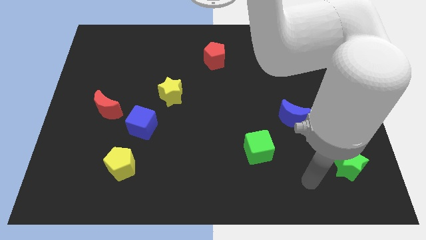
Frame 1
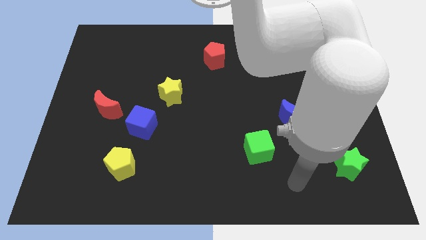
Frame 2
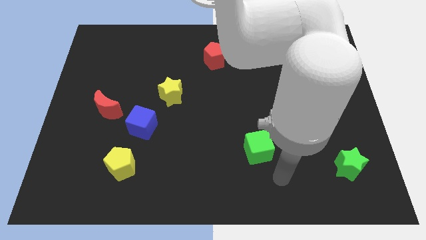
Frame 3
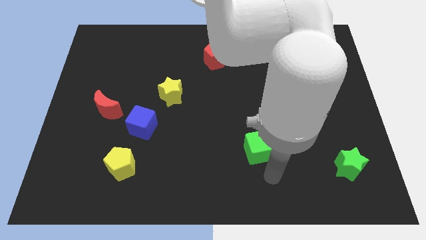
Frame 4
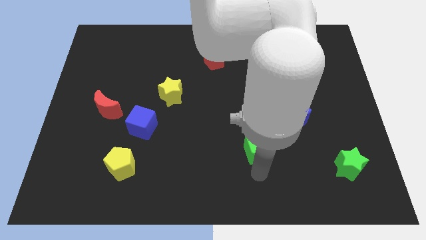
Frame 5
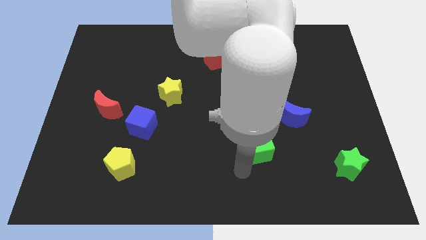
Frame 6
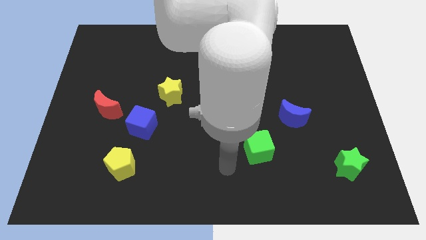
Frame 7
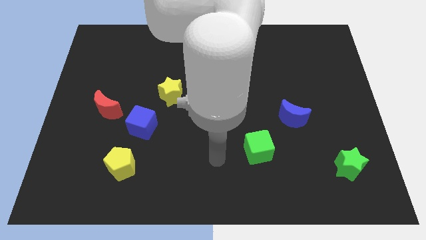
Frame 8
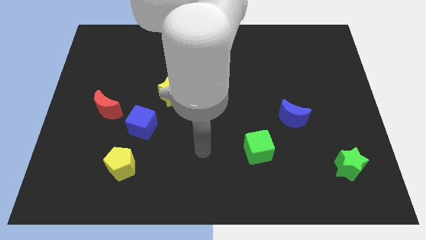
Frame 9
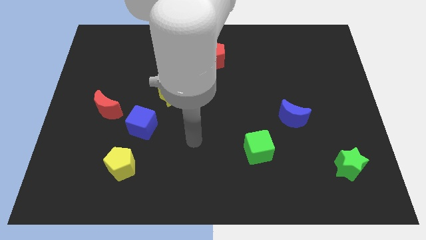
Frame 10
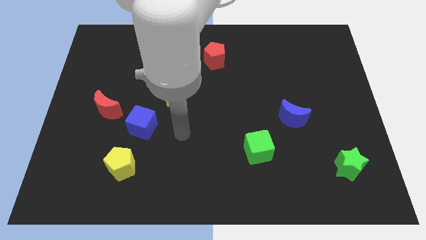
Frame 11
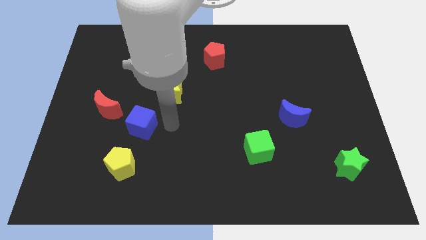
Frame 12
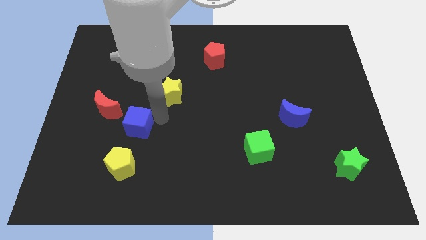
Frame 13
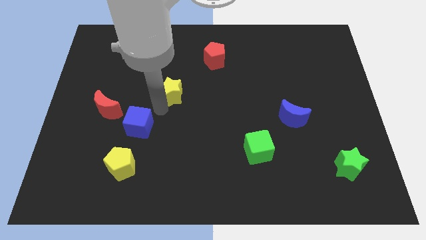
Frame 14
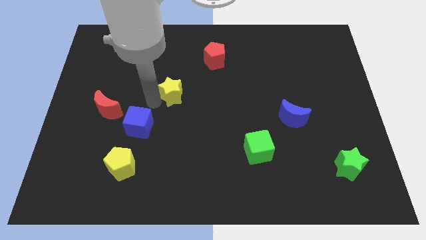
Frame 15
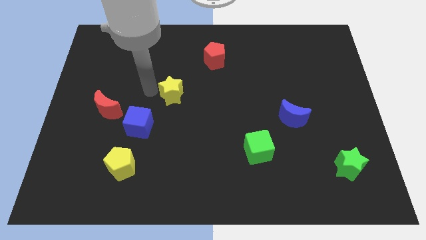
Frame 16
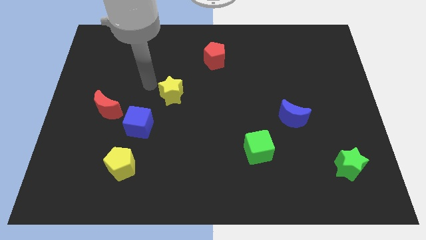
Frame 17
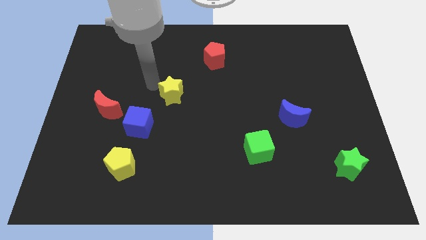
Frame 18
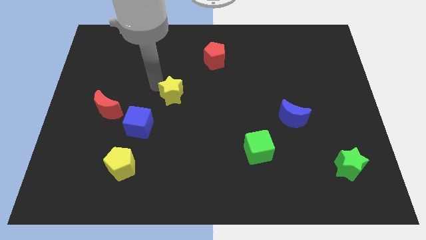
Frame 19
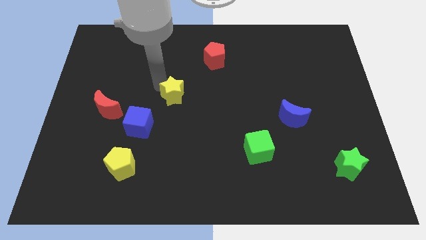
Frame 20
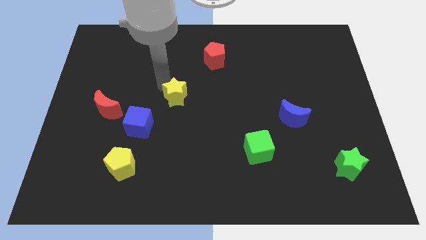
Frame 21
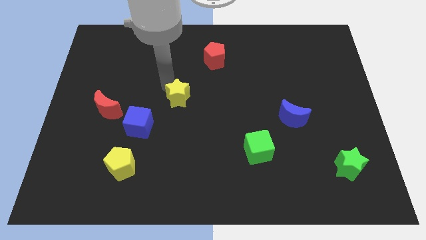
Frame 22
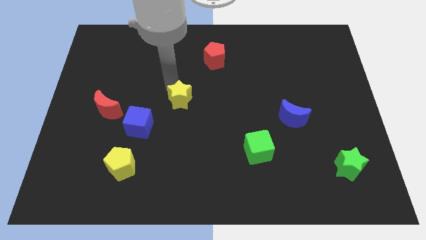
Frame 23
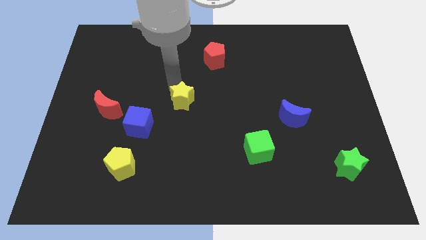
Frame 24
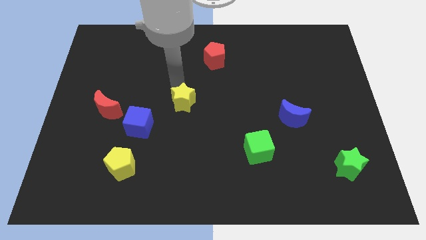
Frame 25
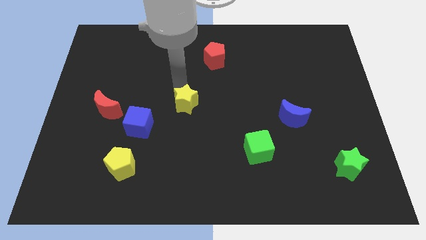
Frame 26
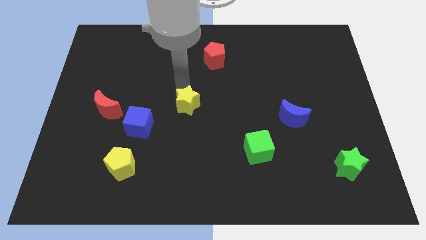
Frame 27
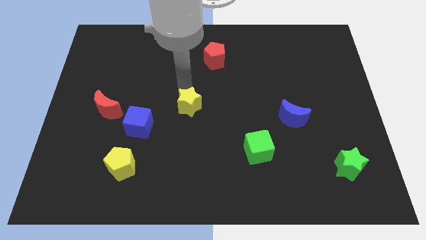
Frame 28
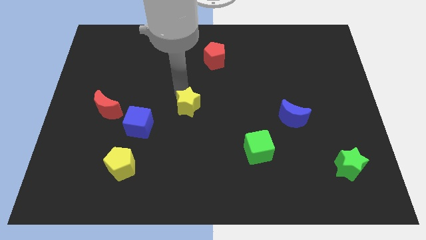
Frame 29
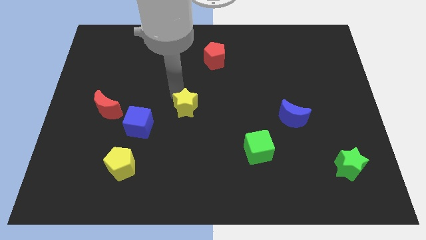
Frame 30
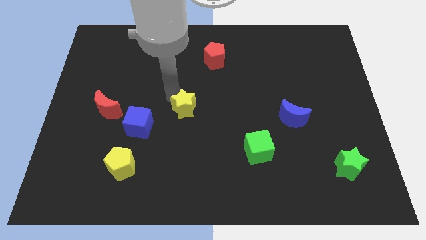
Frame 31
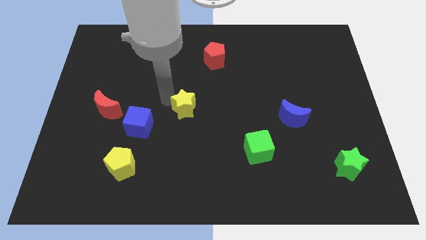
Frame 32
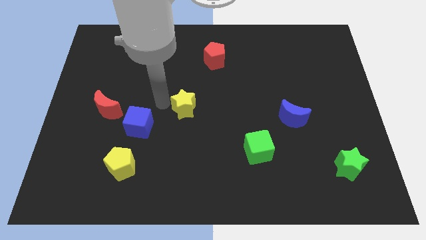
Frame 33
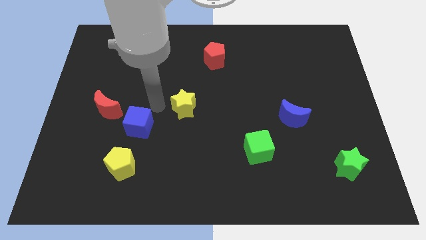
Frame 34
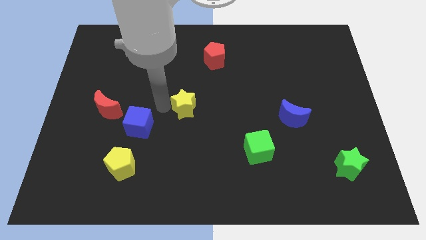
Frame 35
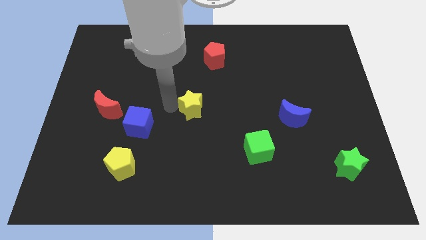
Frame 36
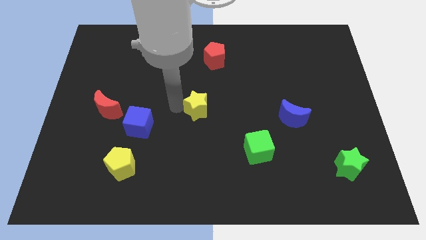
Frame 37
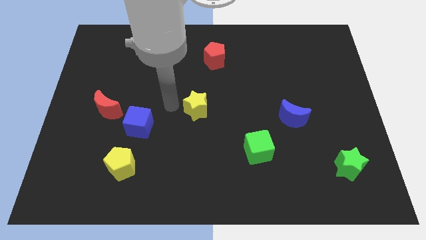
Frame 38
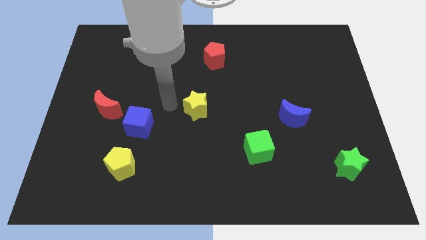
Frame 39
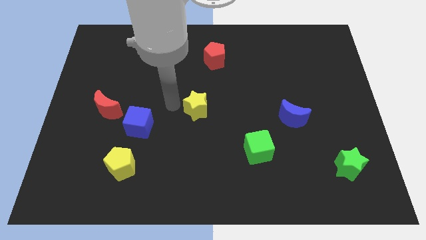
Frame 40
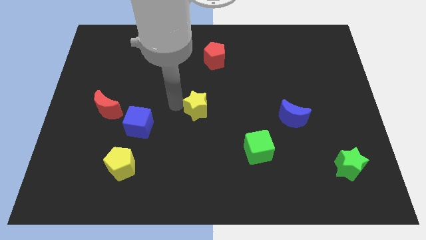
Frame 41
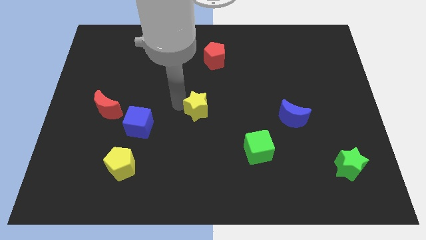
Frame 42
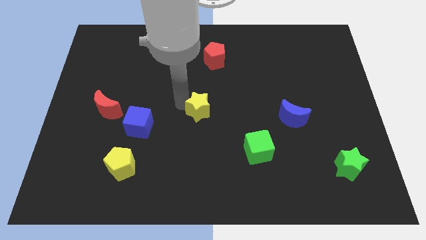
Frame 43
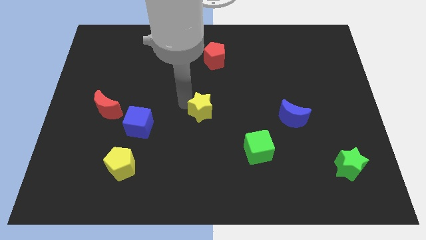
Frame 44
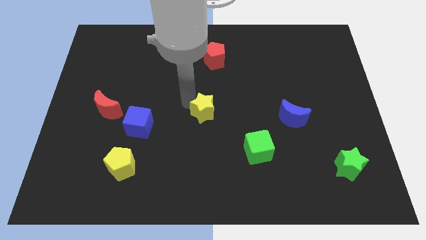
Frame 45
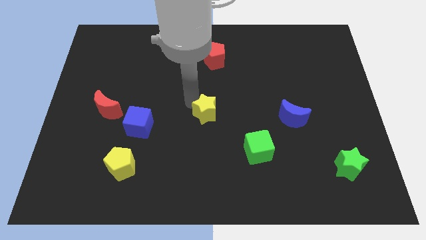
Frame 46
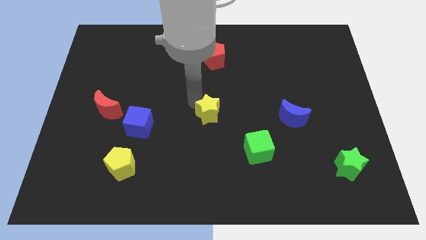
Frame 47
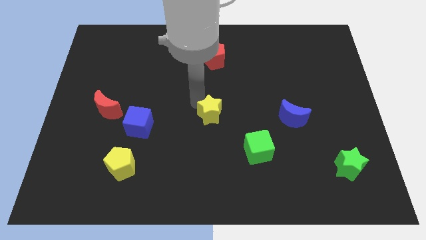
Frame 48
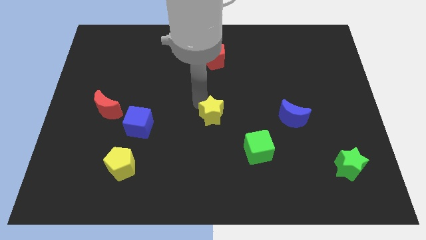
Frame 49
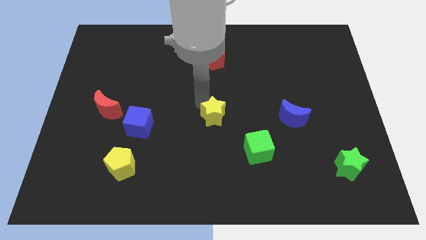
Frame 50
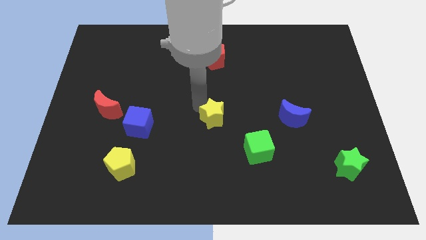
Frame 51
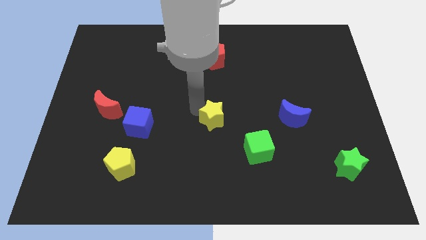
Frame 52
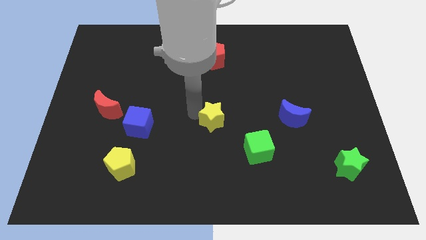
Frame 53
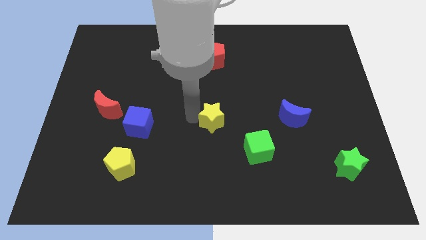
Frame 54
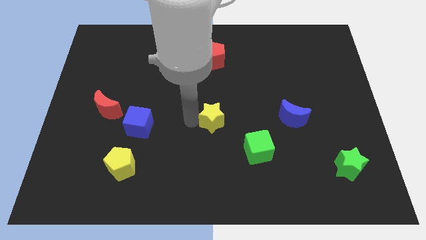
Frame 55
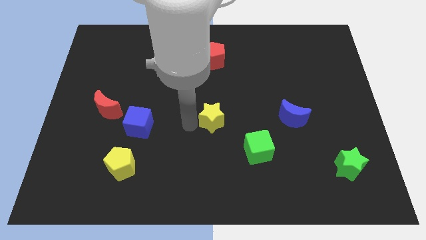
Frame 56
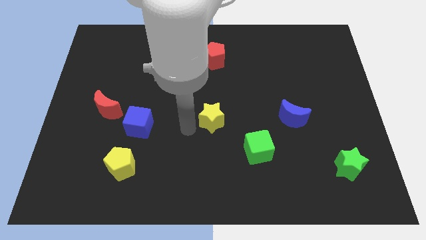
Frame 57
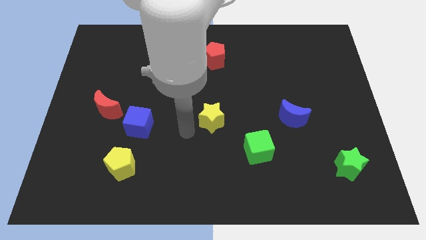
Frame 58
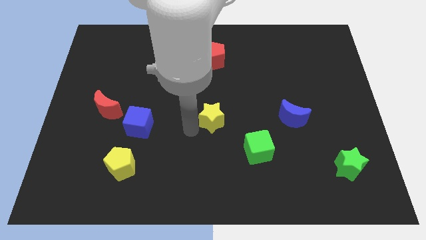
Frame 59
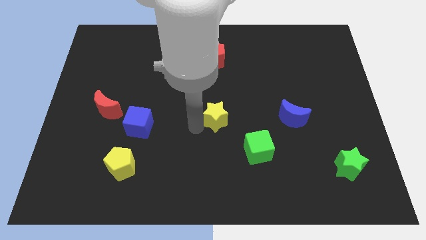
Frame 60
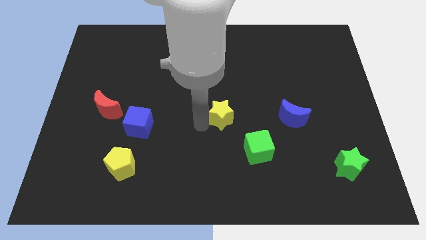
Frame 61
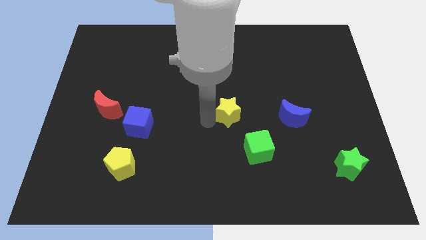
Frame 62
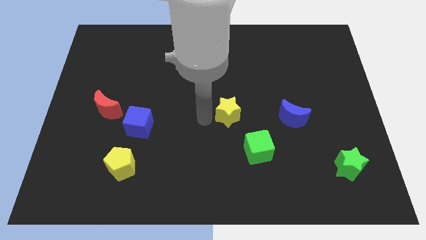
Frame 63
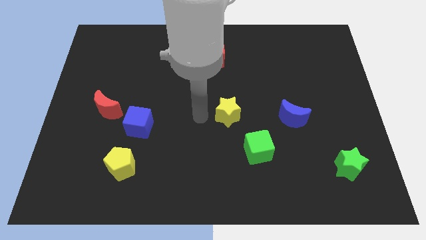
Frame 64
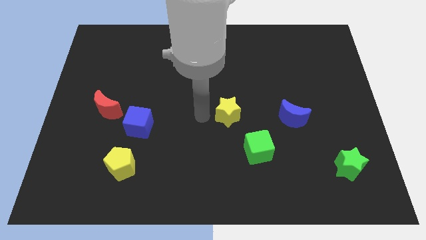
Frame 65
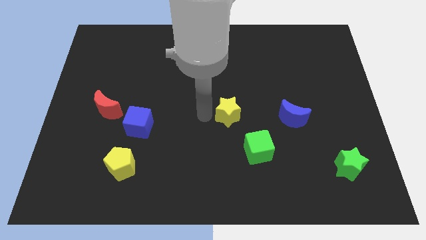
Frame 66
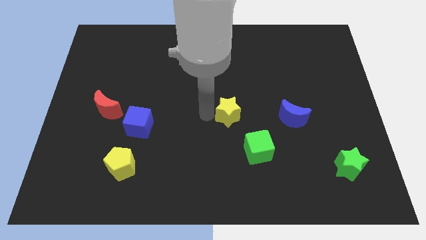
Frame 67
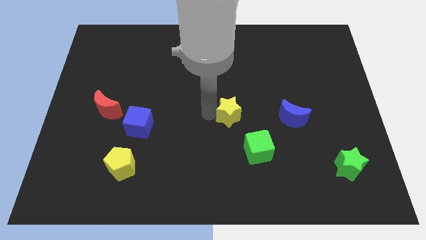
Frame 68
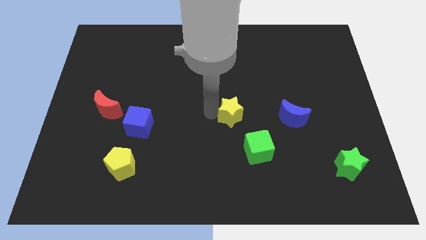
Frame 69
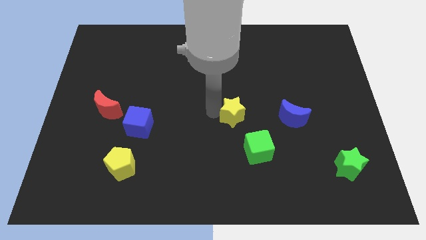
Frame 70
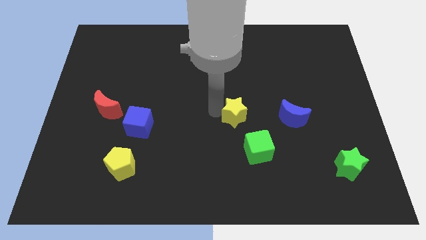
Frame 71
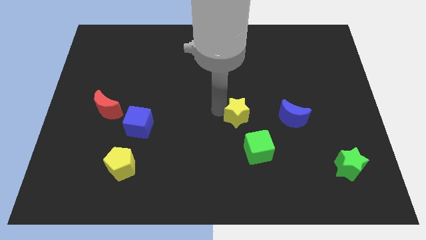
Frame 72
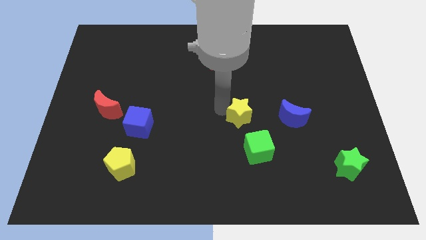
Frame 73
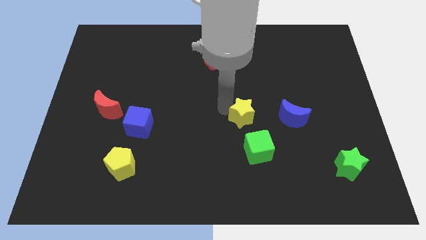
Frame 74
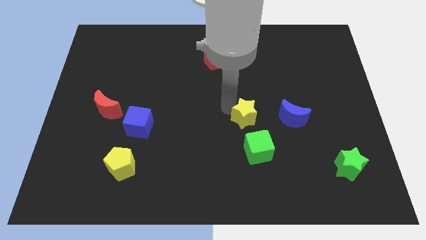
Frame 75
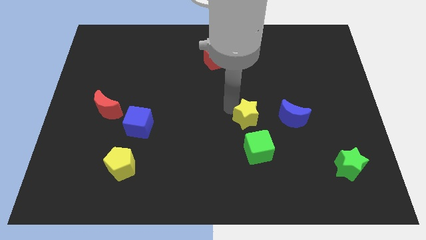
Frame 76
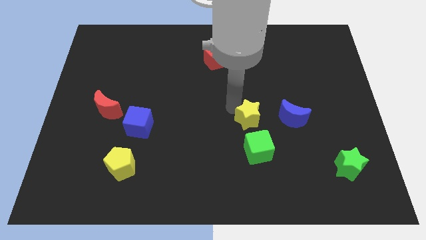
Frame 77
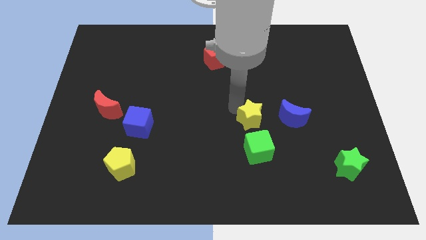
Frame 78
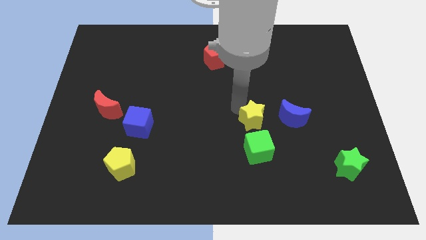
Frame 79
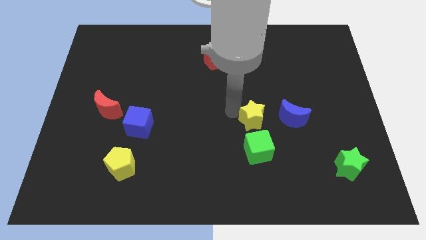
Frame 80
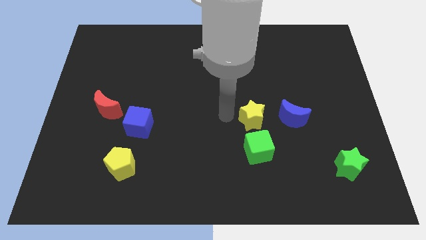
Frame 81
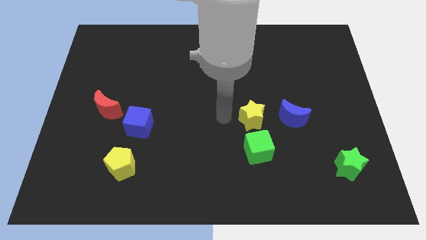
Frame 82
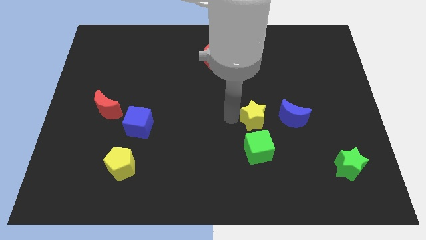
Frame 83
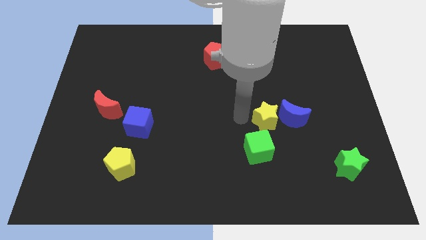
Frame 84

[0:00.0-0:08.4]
put the yellow star next to the blue moon

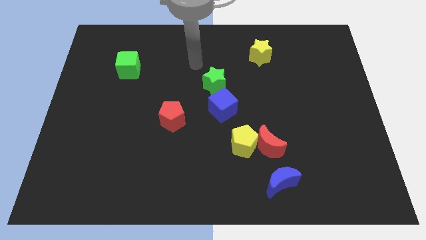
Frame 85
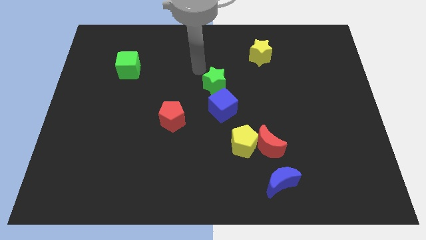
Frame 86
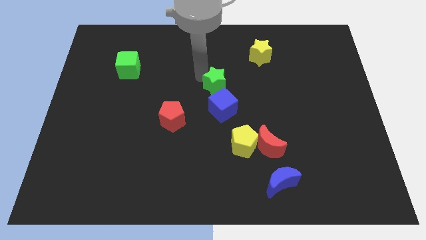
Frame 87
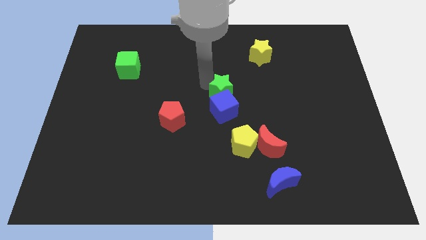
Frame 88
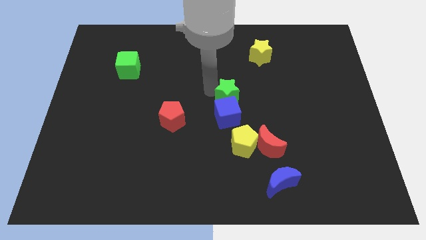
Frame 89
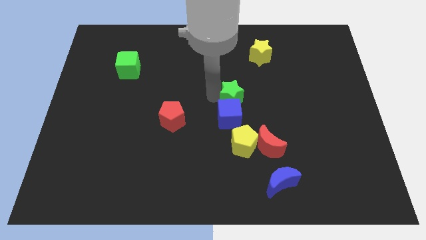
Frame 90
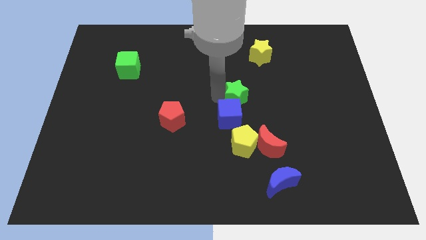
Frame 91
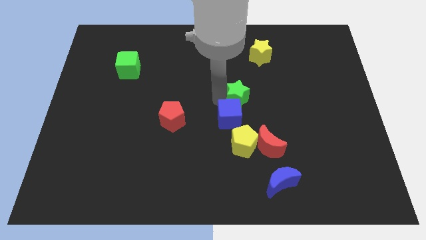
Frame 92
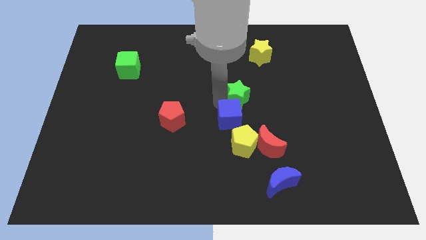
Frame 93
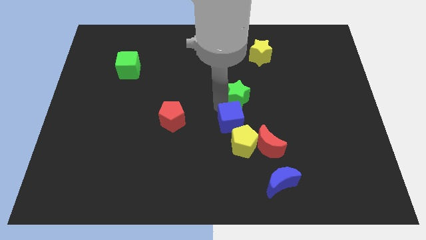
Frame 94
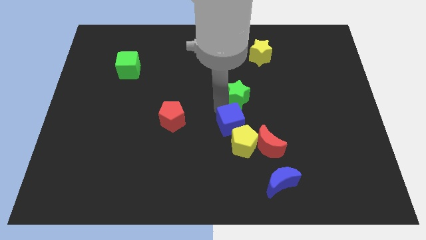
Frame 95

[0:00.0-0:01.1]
push the blue cube to the yellow pentagon
